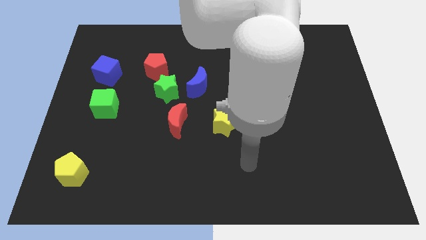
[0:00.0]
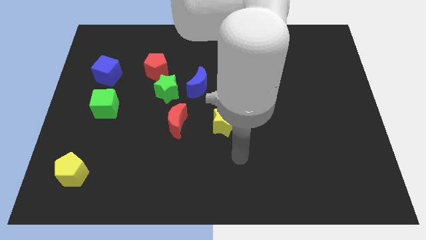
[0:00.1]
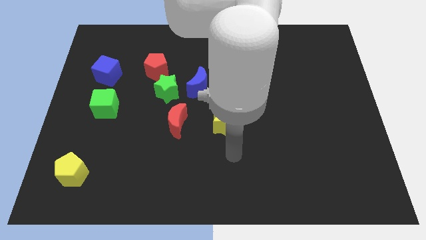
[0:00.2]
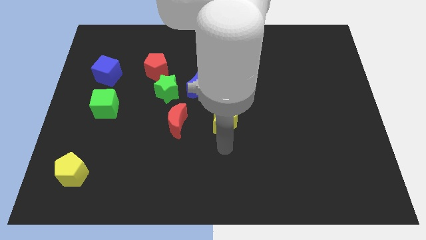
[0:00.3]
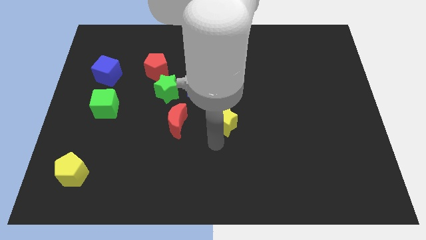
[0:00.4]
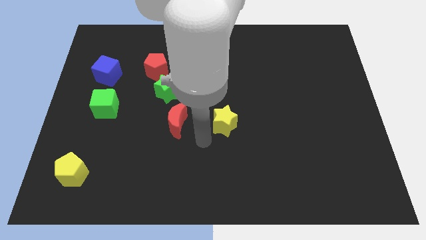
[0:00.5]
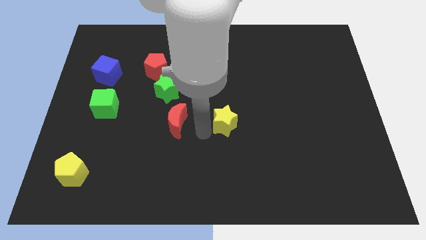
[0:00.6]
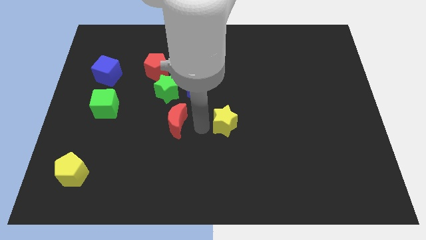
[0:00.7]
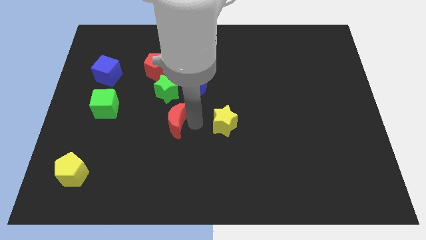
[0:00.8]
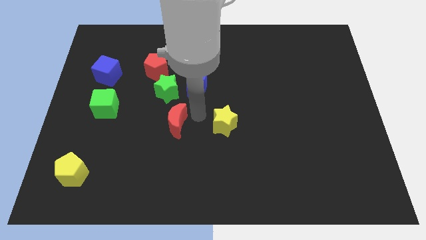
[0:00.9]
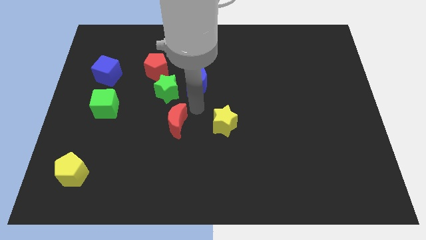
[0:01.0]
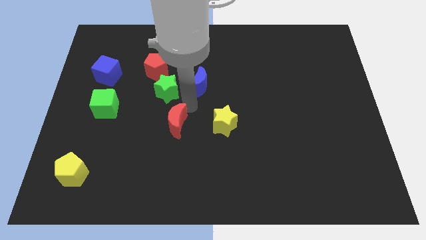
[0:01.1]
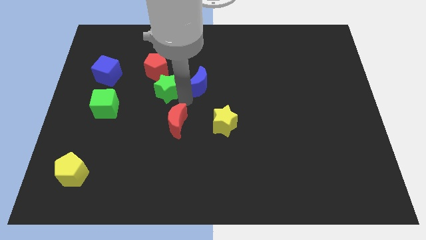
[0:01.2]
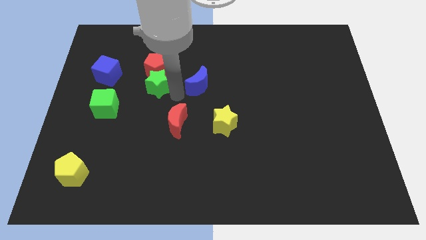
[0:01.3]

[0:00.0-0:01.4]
separate the blue moon from the green star

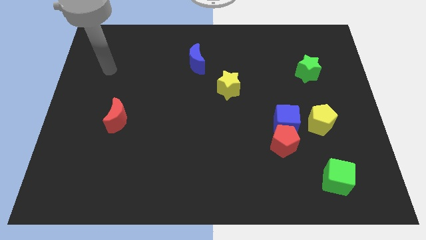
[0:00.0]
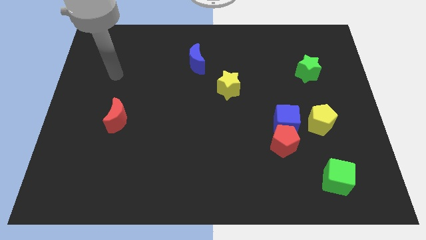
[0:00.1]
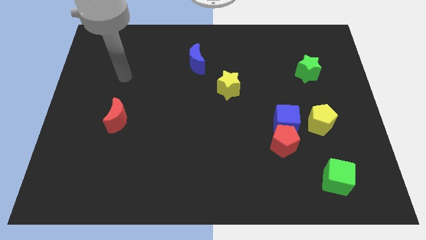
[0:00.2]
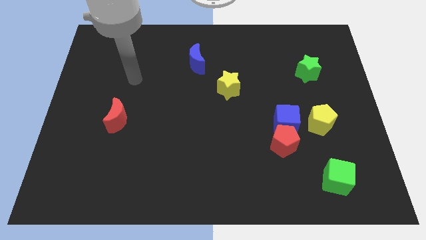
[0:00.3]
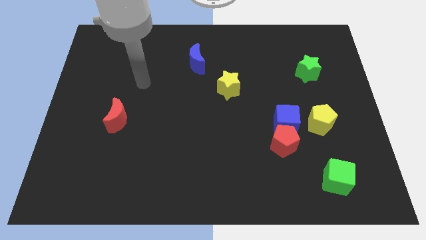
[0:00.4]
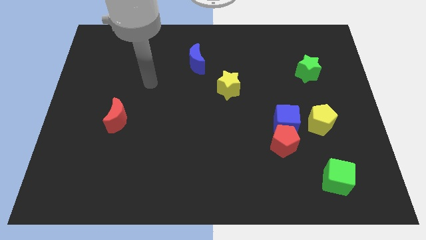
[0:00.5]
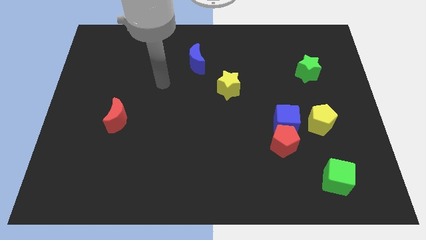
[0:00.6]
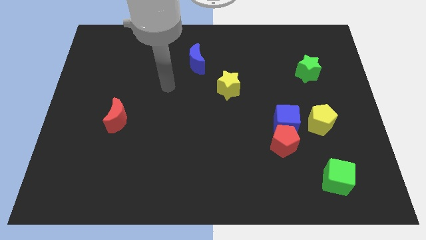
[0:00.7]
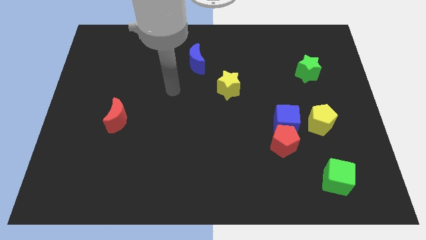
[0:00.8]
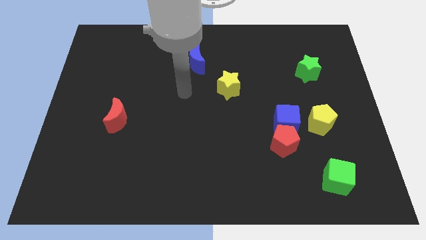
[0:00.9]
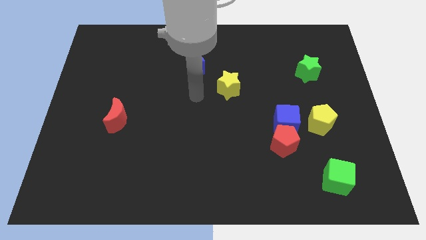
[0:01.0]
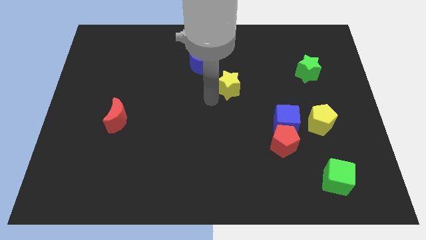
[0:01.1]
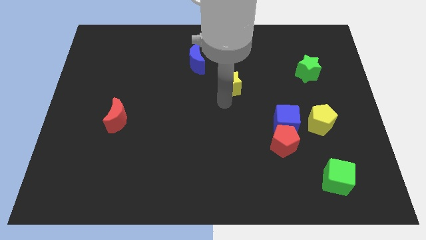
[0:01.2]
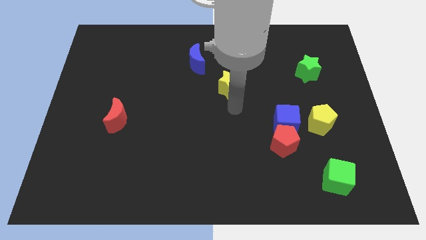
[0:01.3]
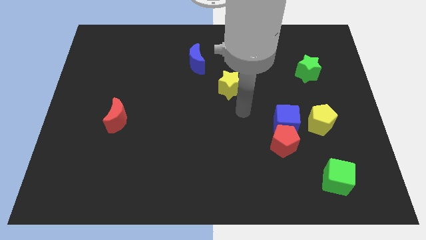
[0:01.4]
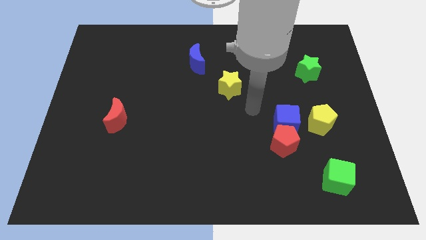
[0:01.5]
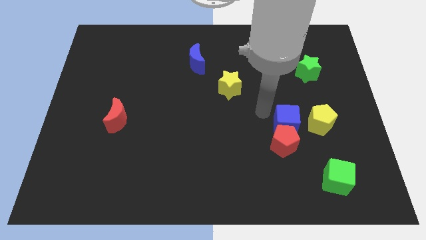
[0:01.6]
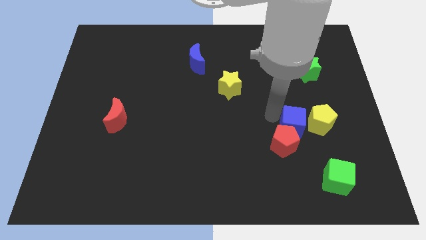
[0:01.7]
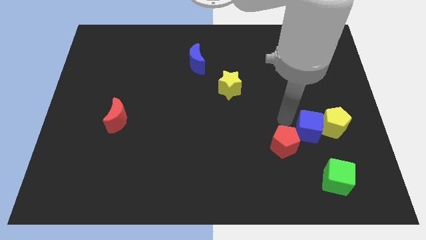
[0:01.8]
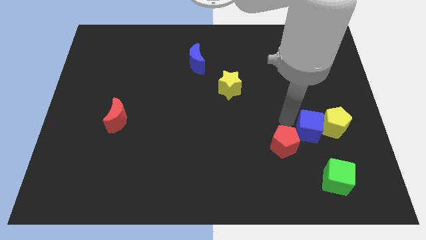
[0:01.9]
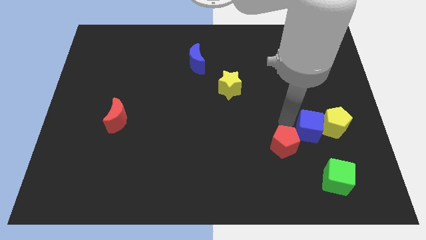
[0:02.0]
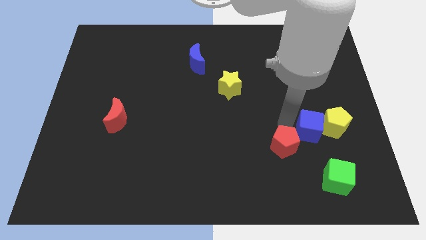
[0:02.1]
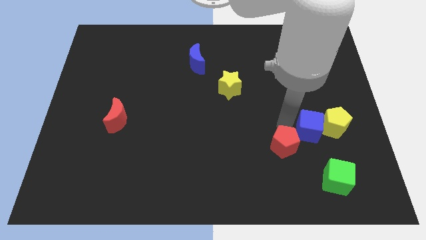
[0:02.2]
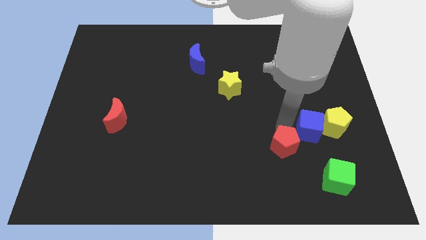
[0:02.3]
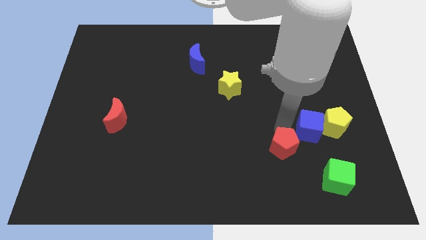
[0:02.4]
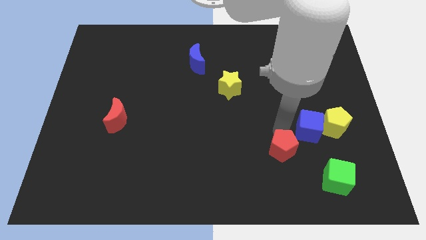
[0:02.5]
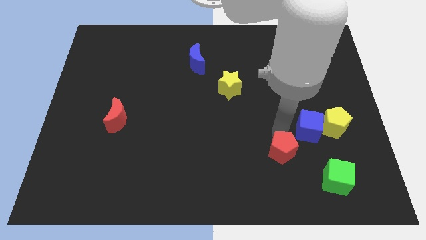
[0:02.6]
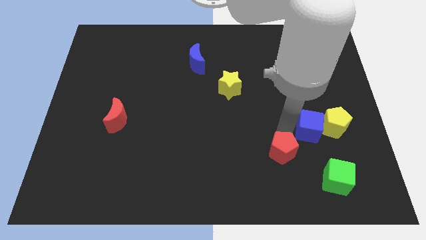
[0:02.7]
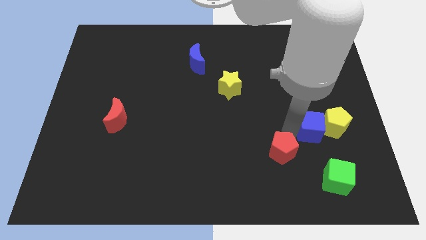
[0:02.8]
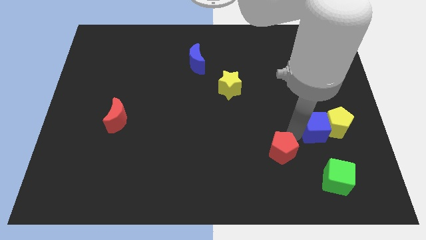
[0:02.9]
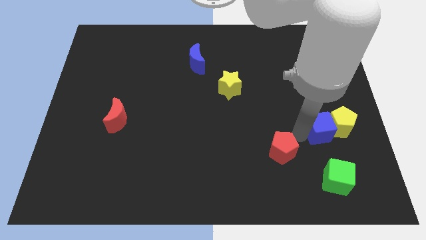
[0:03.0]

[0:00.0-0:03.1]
separate the red pentagon from the blue cube

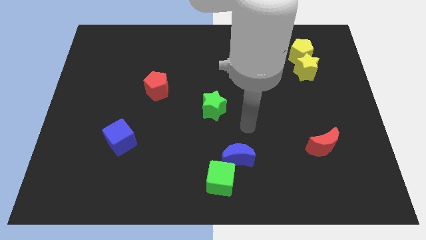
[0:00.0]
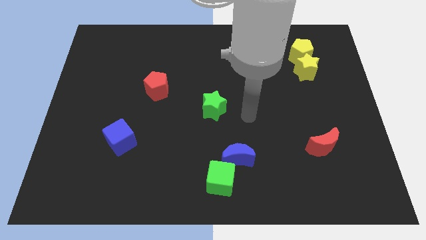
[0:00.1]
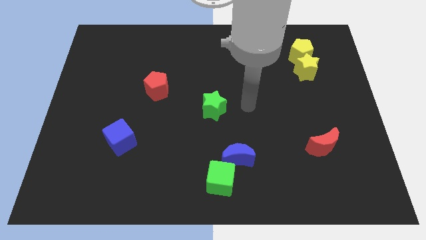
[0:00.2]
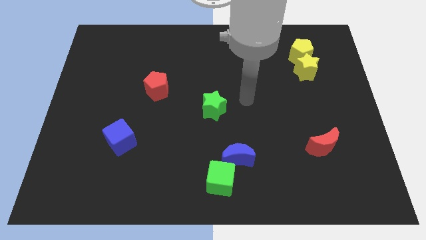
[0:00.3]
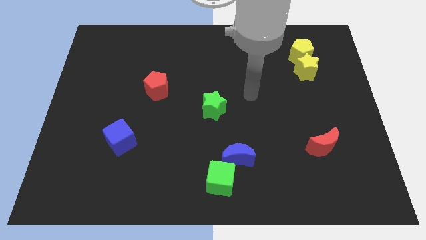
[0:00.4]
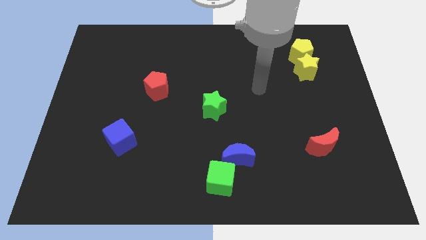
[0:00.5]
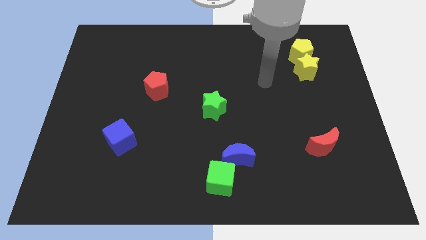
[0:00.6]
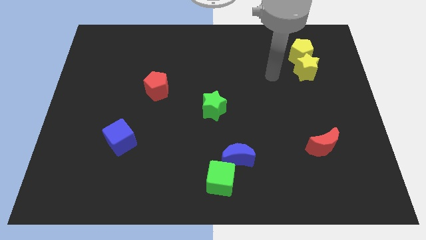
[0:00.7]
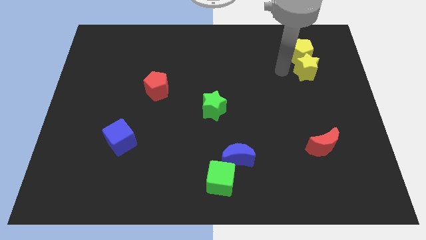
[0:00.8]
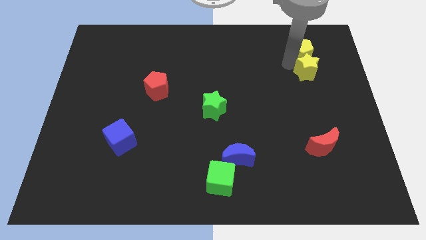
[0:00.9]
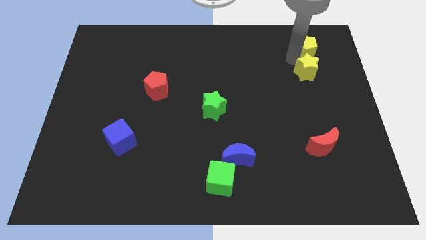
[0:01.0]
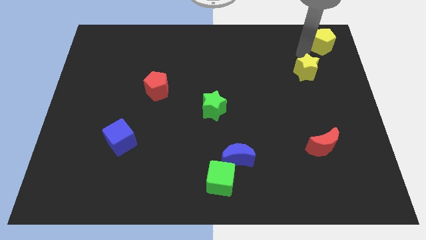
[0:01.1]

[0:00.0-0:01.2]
pull the yellow star apart from the yellow pentagon

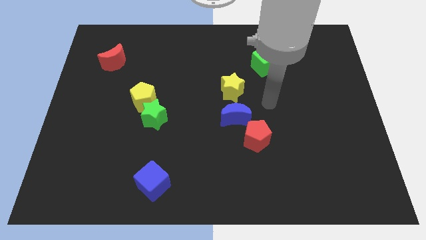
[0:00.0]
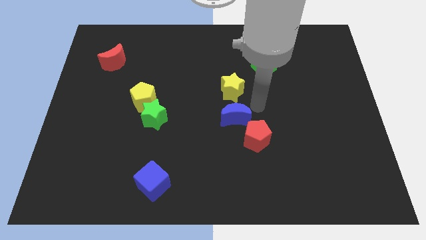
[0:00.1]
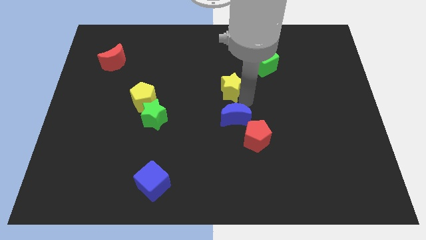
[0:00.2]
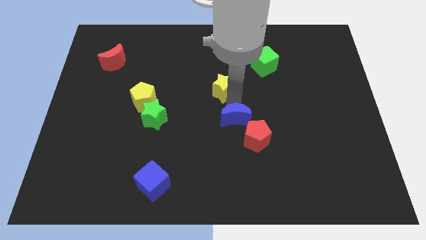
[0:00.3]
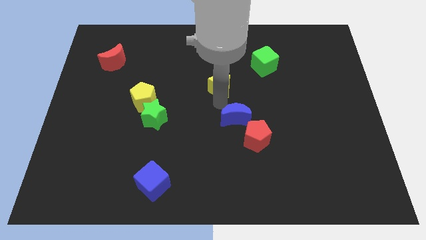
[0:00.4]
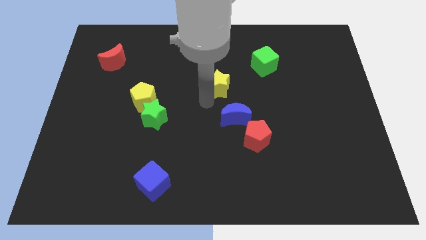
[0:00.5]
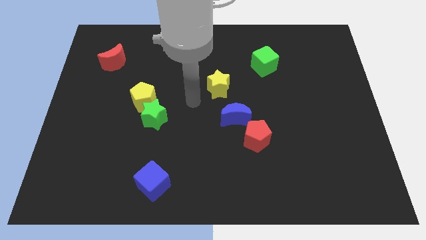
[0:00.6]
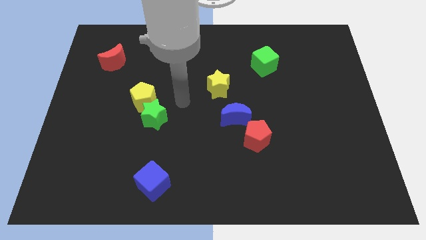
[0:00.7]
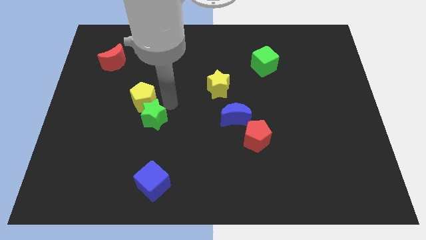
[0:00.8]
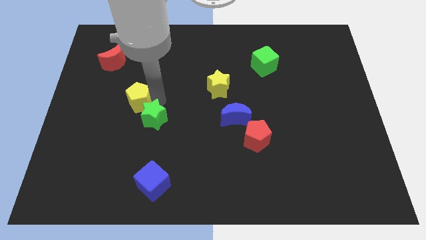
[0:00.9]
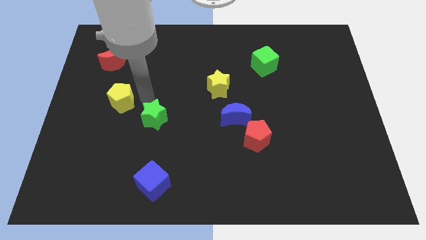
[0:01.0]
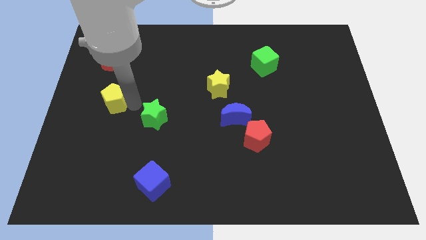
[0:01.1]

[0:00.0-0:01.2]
move the green star away from the yellow pentagon

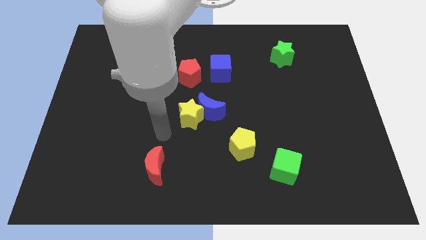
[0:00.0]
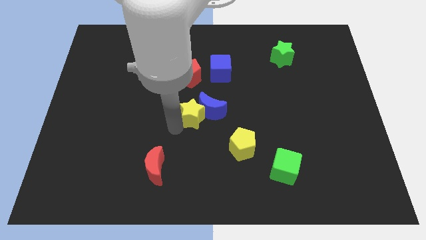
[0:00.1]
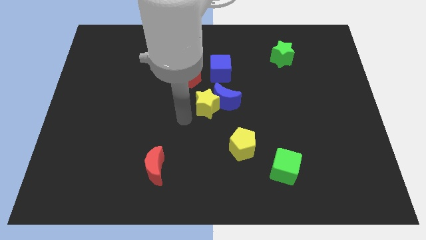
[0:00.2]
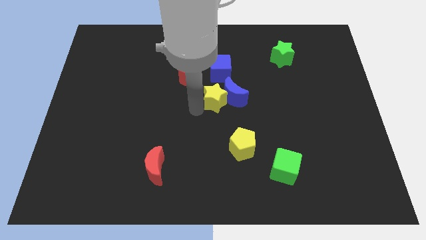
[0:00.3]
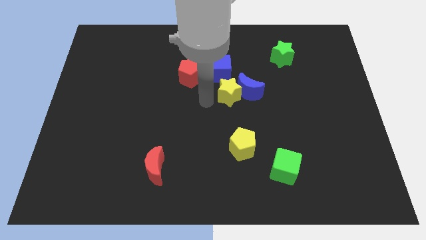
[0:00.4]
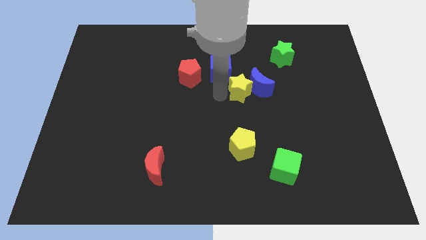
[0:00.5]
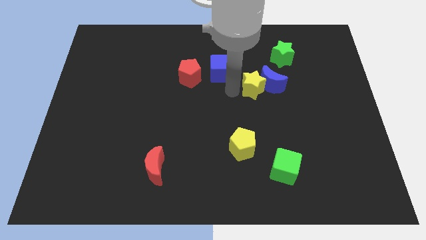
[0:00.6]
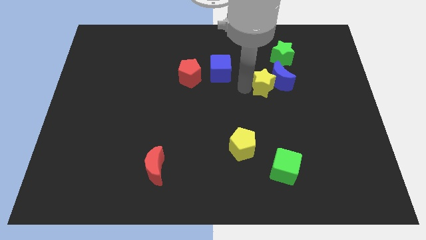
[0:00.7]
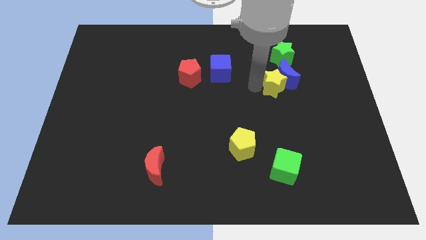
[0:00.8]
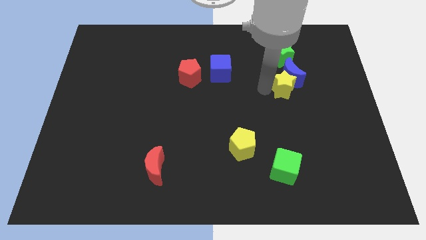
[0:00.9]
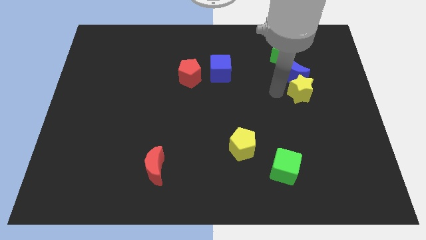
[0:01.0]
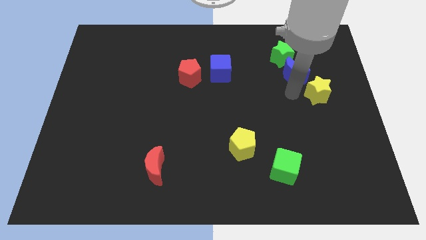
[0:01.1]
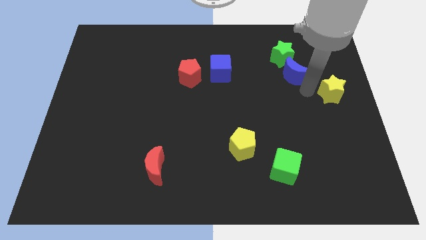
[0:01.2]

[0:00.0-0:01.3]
separate the blue moon from the yellow star

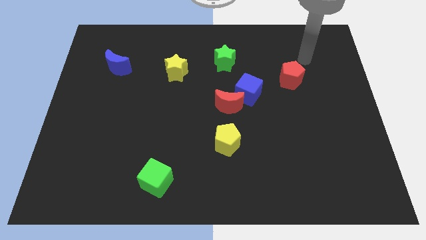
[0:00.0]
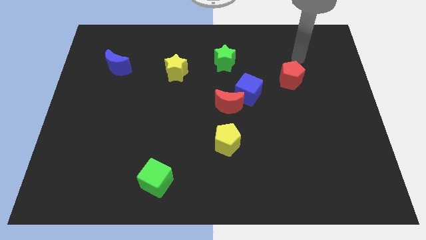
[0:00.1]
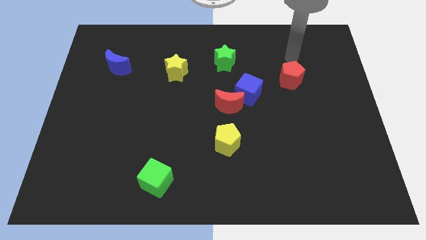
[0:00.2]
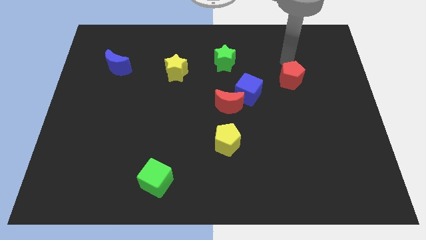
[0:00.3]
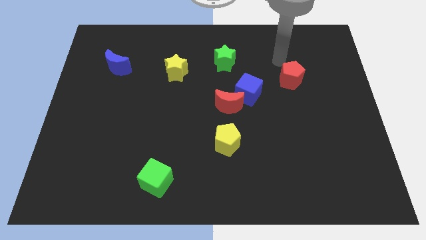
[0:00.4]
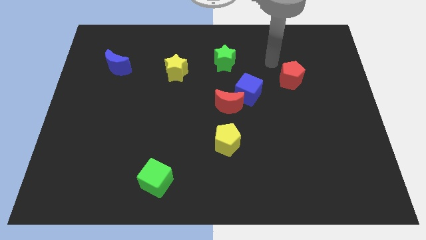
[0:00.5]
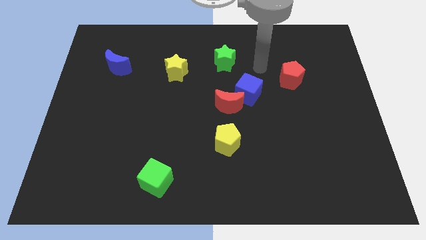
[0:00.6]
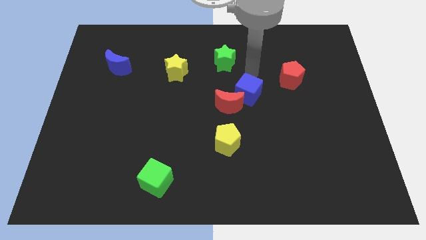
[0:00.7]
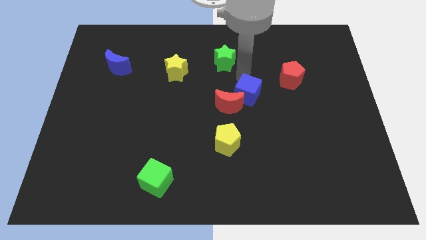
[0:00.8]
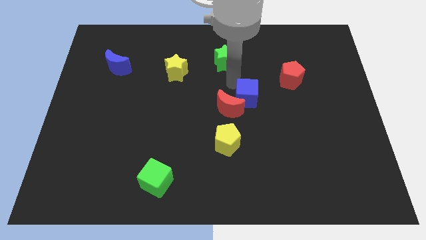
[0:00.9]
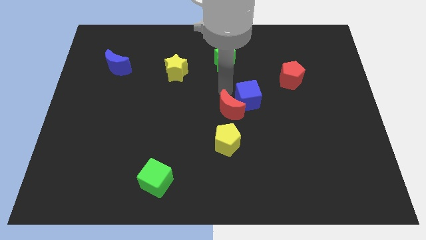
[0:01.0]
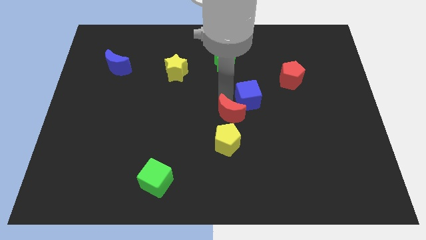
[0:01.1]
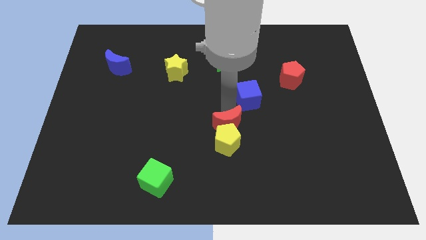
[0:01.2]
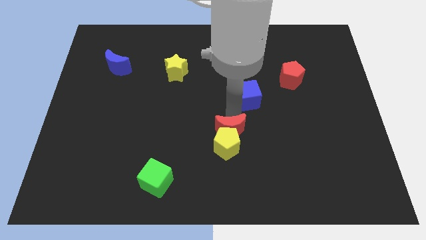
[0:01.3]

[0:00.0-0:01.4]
separate the blue cube from the red moon
